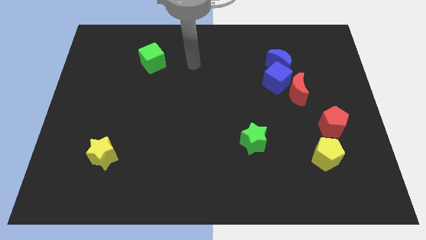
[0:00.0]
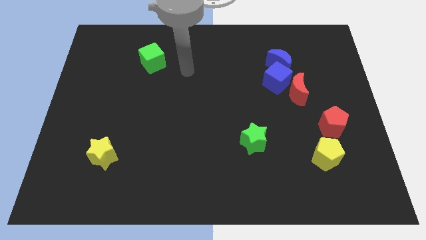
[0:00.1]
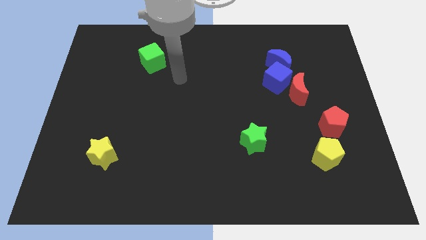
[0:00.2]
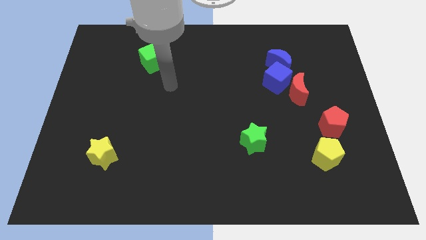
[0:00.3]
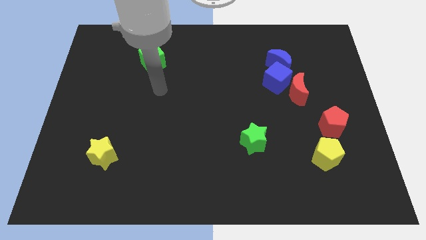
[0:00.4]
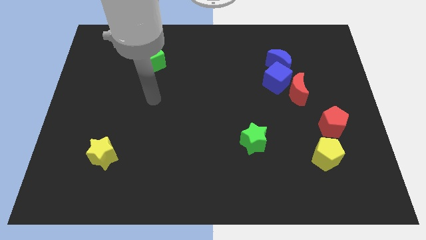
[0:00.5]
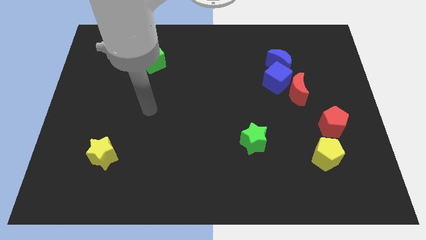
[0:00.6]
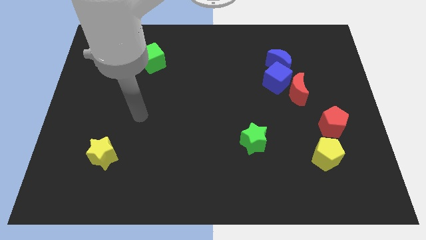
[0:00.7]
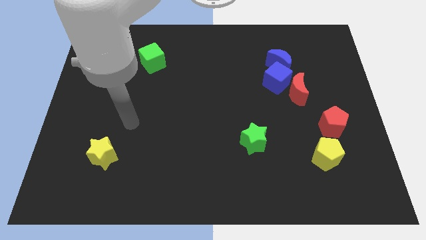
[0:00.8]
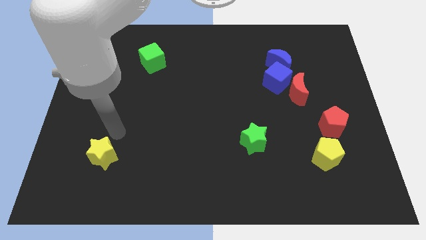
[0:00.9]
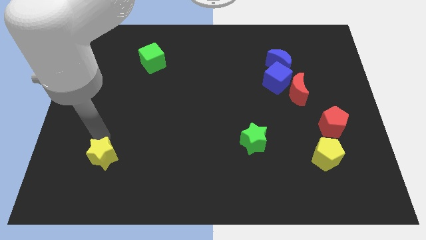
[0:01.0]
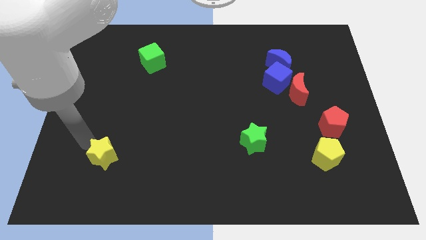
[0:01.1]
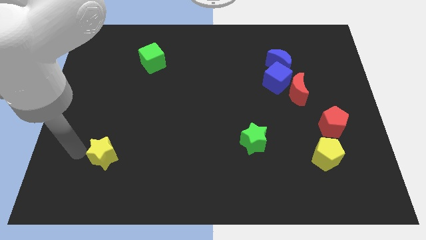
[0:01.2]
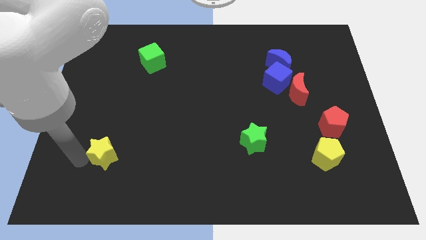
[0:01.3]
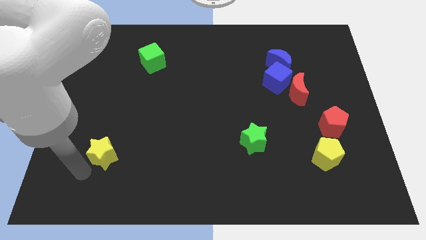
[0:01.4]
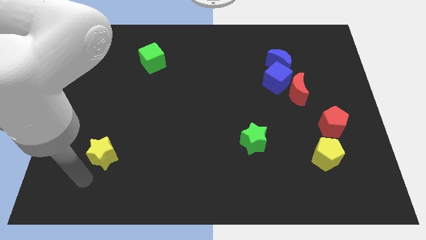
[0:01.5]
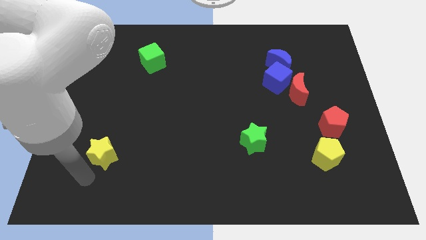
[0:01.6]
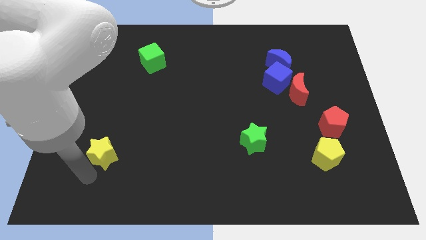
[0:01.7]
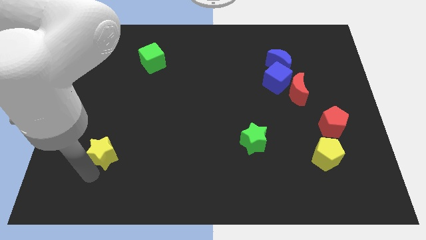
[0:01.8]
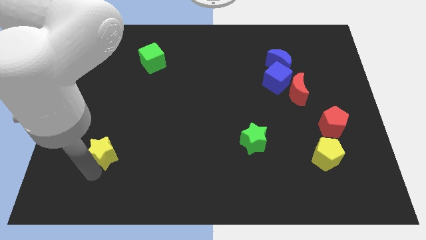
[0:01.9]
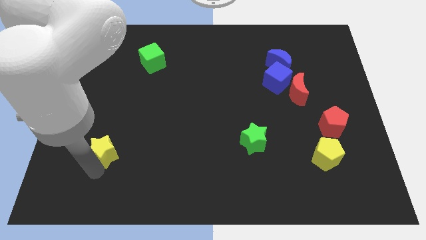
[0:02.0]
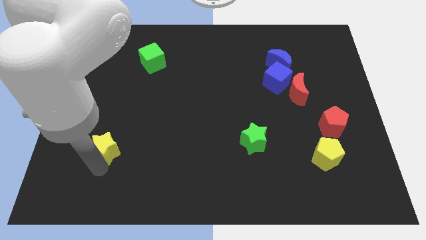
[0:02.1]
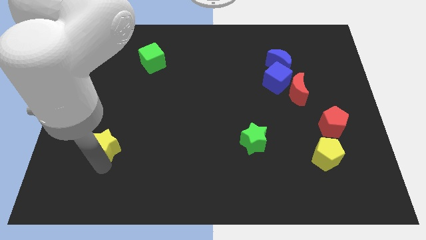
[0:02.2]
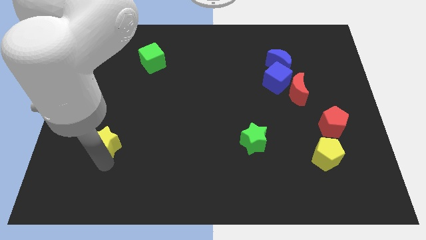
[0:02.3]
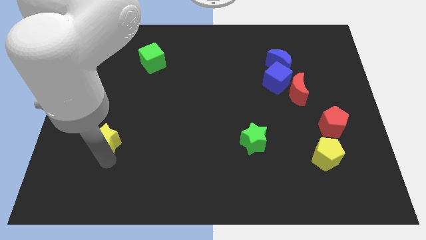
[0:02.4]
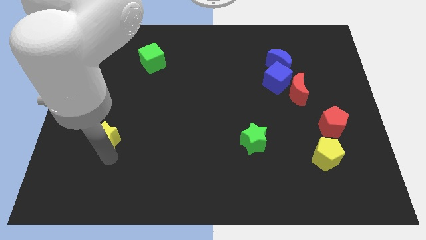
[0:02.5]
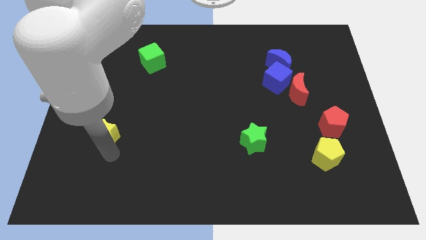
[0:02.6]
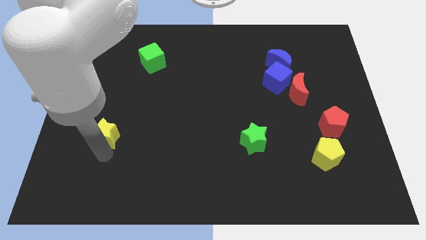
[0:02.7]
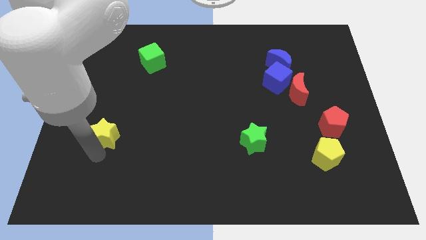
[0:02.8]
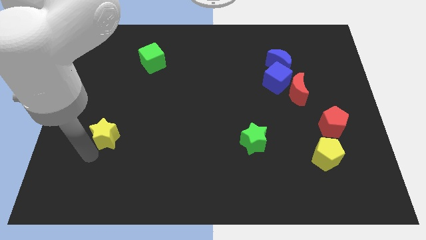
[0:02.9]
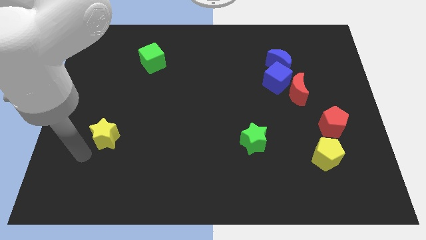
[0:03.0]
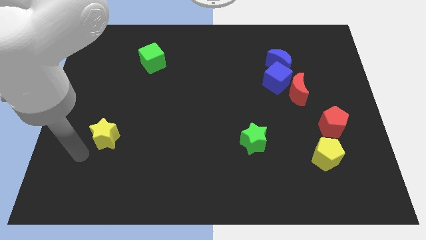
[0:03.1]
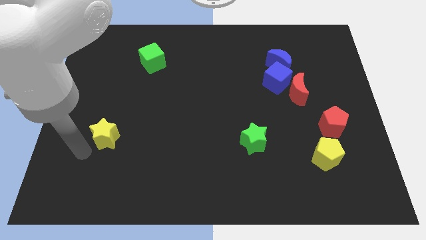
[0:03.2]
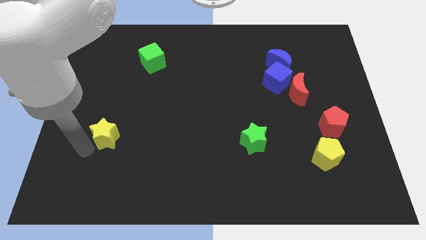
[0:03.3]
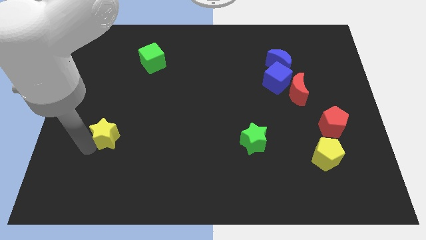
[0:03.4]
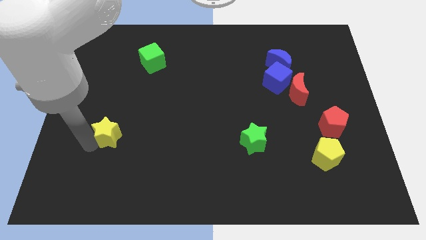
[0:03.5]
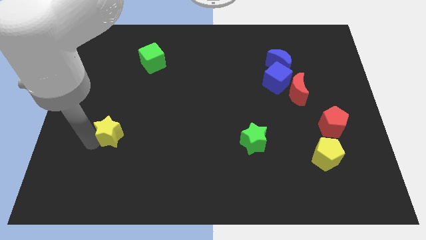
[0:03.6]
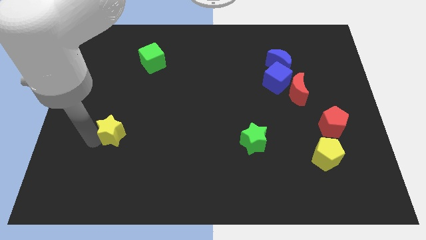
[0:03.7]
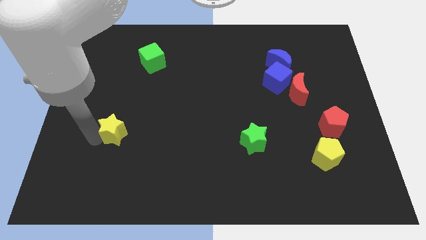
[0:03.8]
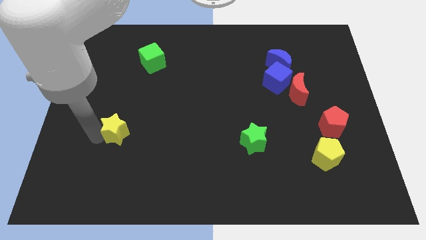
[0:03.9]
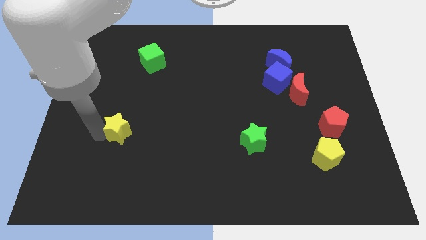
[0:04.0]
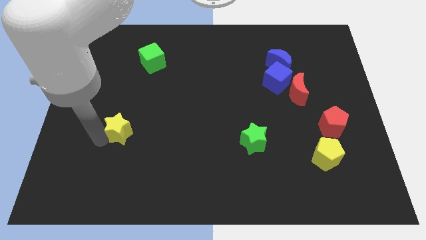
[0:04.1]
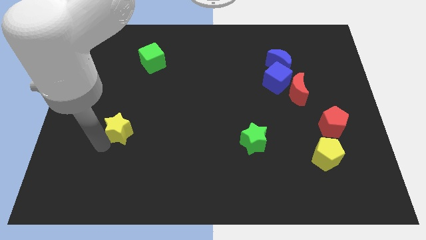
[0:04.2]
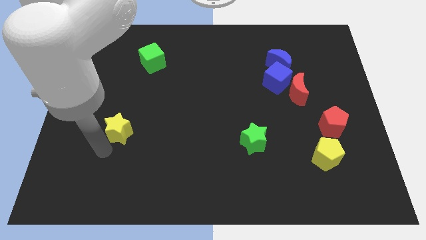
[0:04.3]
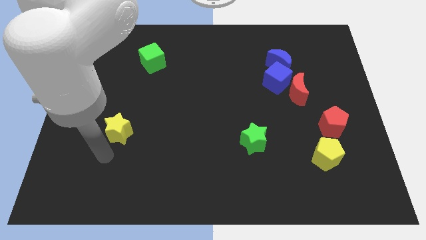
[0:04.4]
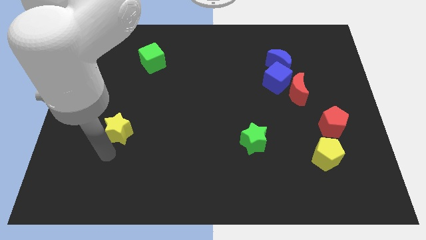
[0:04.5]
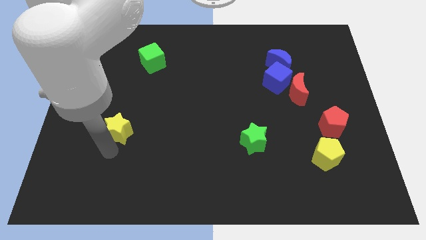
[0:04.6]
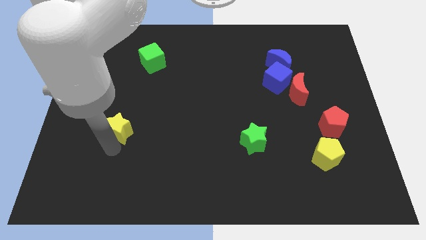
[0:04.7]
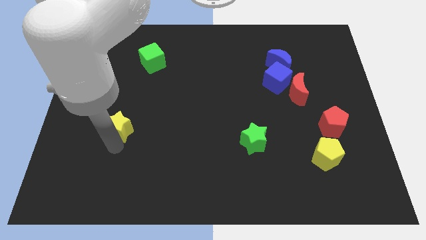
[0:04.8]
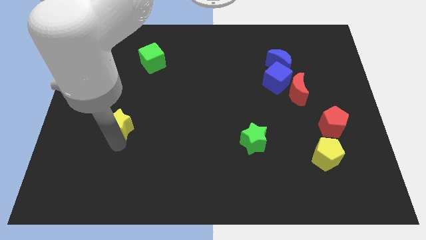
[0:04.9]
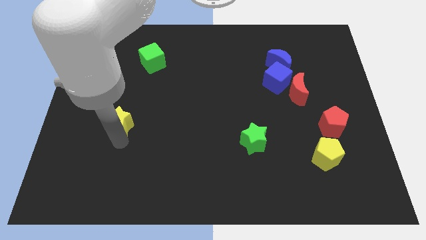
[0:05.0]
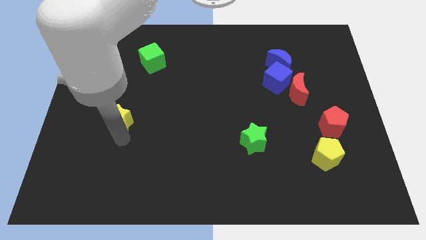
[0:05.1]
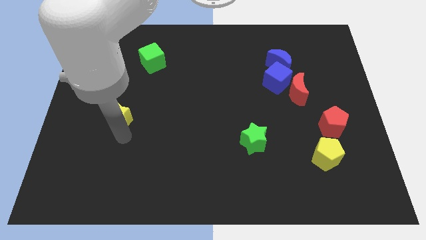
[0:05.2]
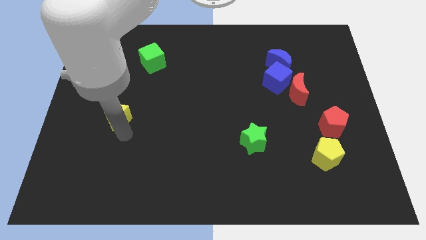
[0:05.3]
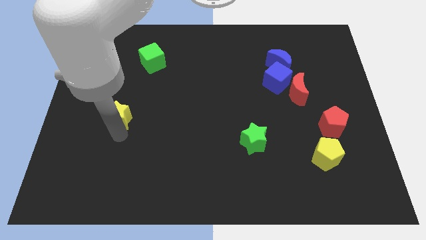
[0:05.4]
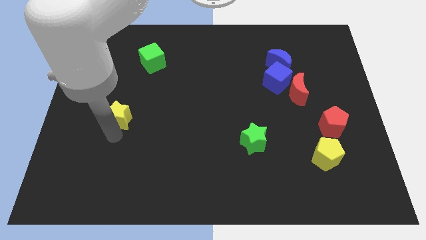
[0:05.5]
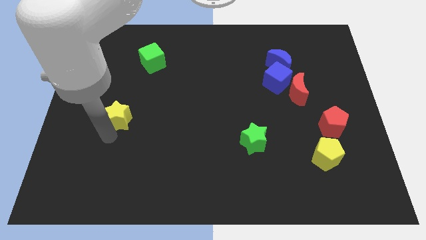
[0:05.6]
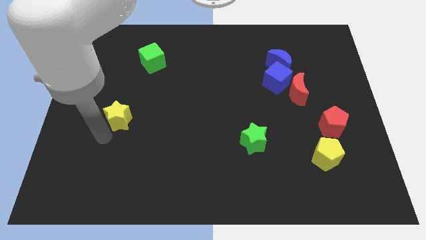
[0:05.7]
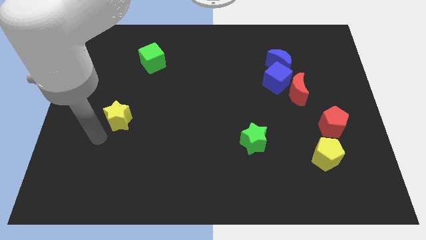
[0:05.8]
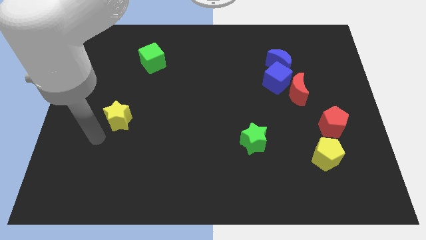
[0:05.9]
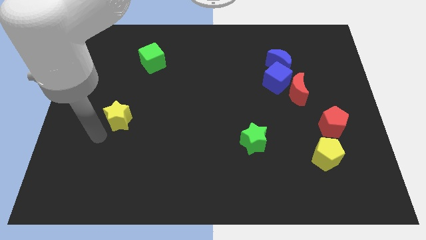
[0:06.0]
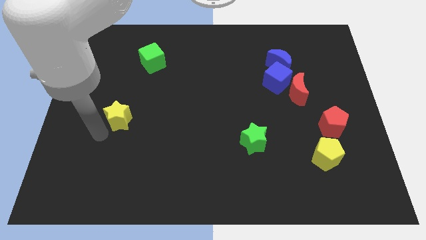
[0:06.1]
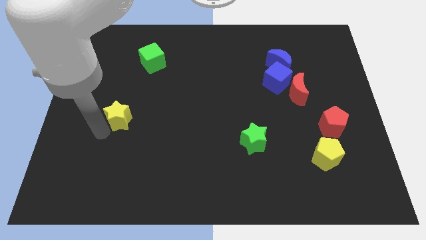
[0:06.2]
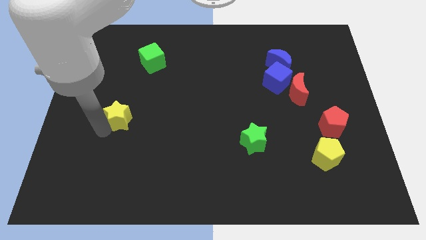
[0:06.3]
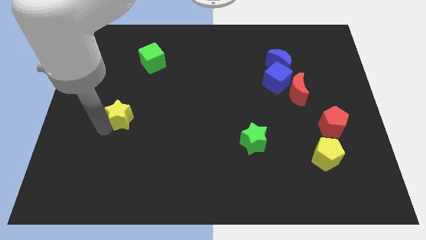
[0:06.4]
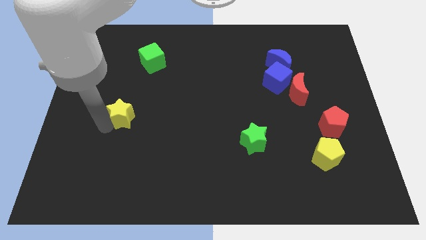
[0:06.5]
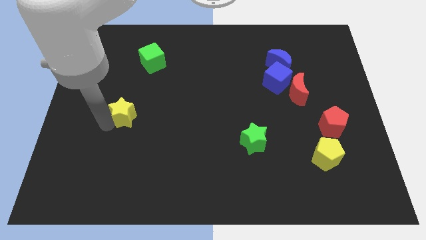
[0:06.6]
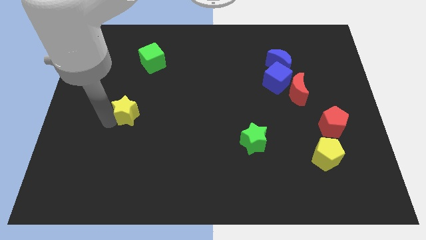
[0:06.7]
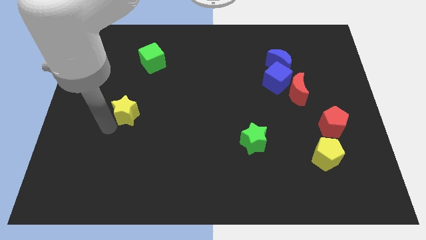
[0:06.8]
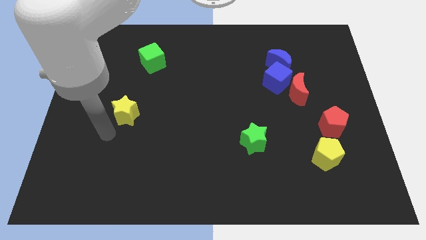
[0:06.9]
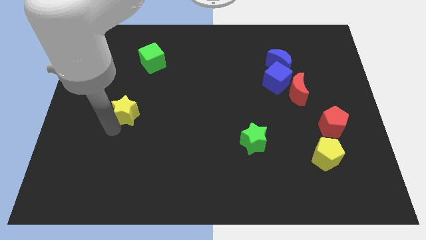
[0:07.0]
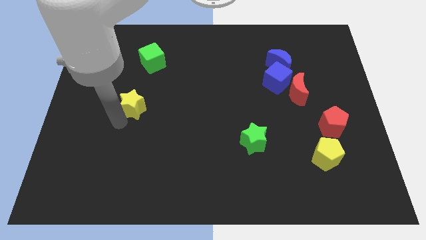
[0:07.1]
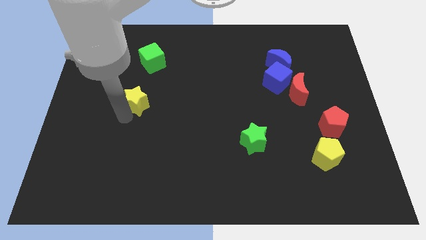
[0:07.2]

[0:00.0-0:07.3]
slide the yellow star to the bottom side of the green cube
